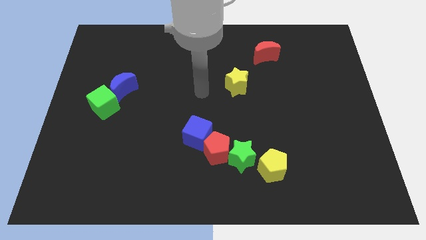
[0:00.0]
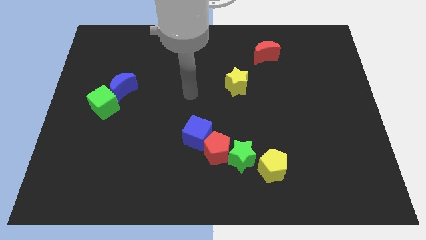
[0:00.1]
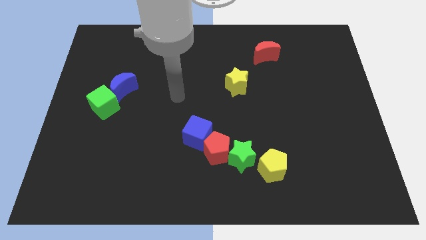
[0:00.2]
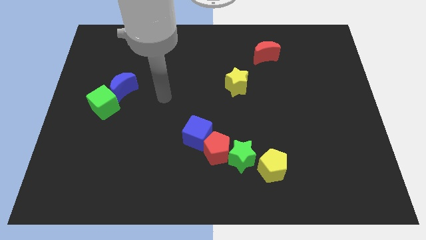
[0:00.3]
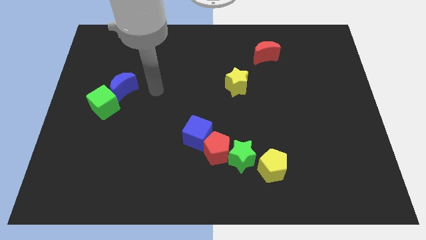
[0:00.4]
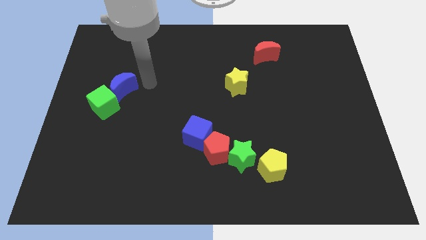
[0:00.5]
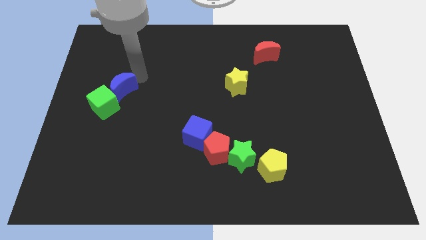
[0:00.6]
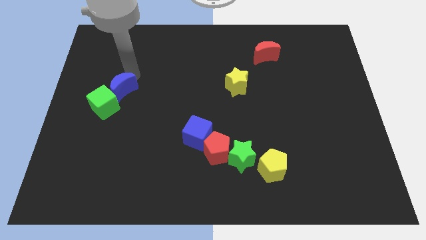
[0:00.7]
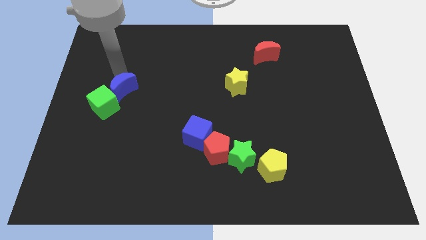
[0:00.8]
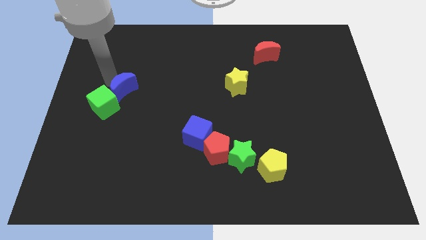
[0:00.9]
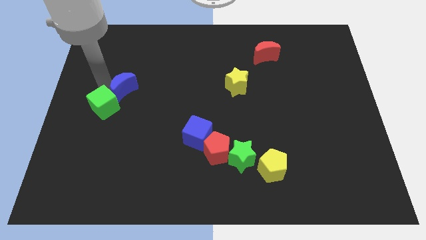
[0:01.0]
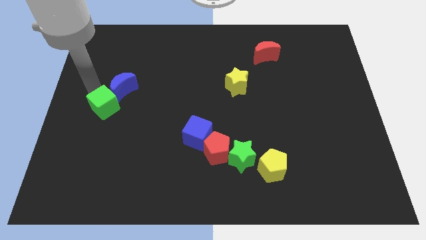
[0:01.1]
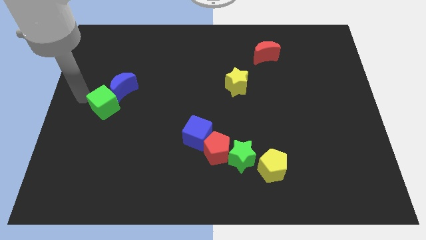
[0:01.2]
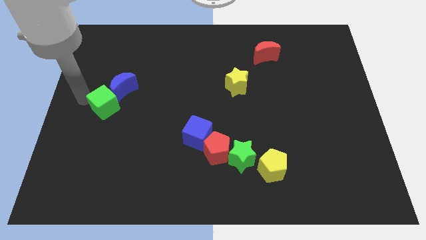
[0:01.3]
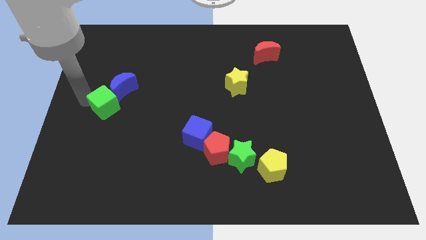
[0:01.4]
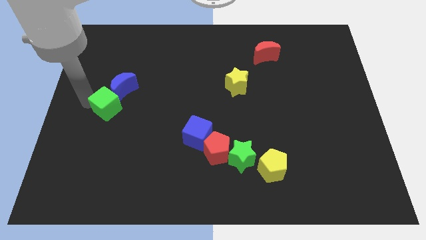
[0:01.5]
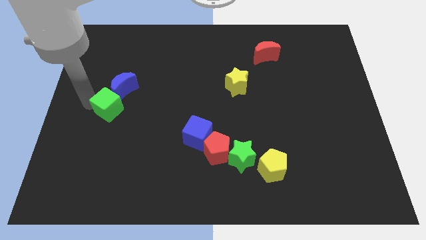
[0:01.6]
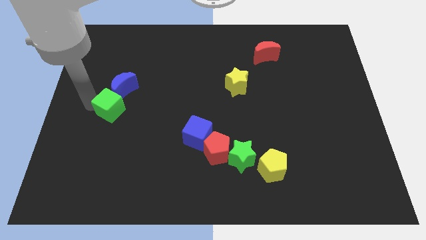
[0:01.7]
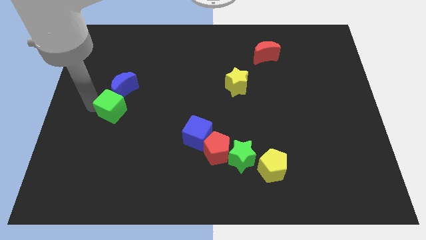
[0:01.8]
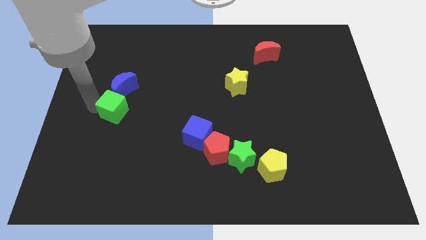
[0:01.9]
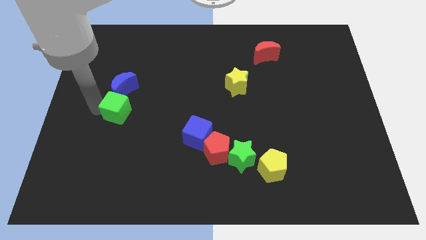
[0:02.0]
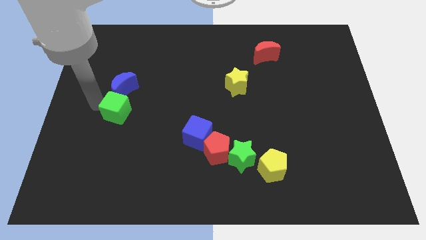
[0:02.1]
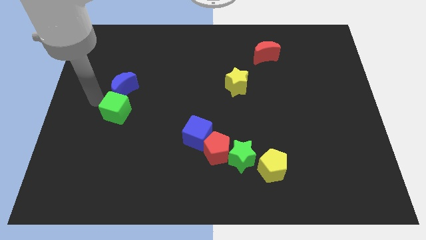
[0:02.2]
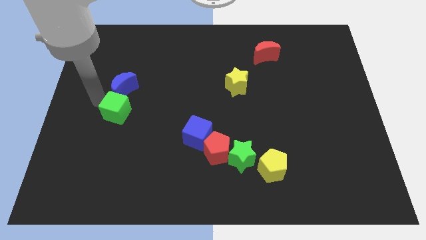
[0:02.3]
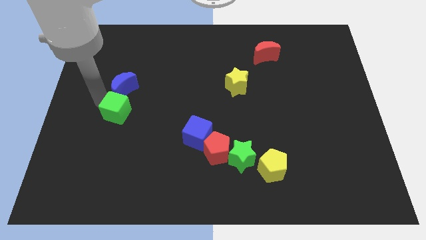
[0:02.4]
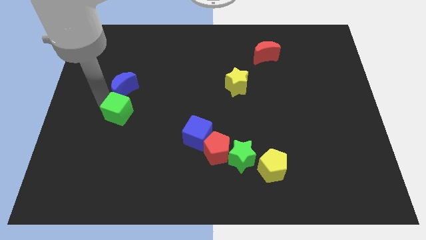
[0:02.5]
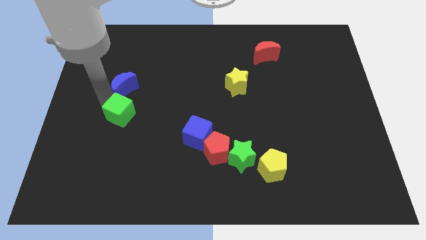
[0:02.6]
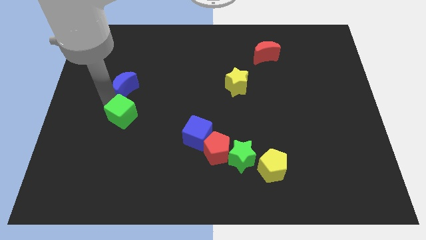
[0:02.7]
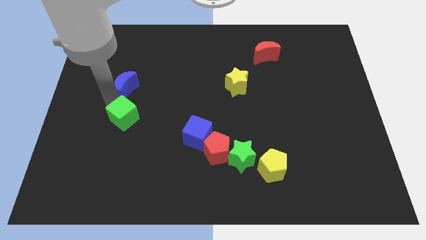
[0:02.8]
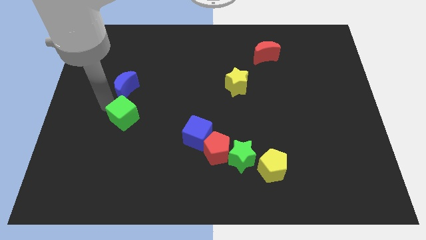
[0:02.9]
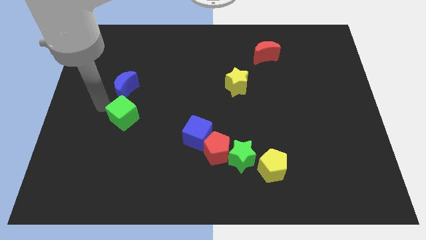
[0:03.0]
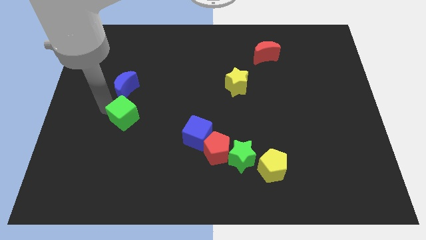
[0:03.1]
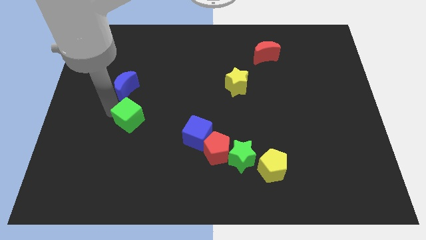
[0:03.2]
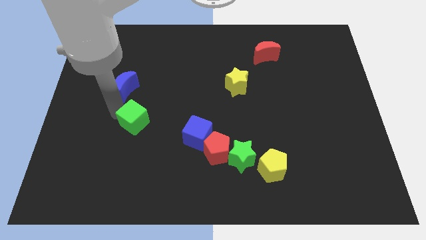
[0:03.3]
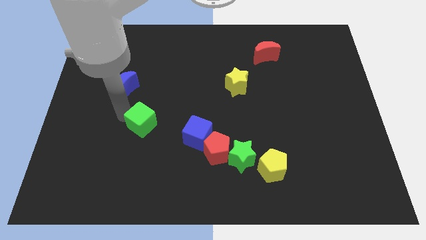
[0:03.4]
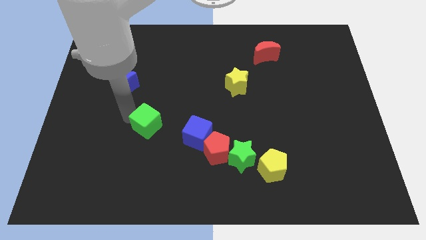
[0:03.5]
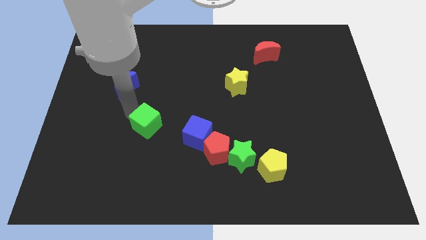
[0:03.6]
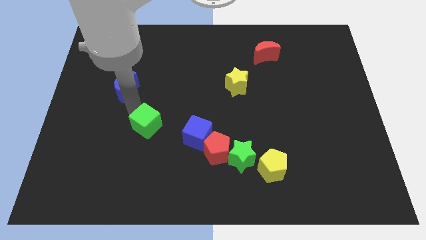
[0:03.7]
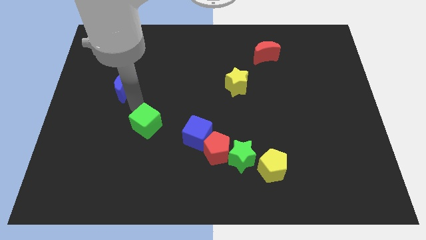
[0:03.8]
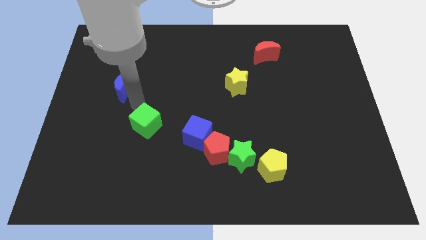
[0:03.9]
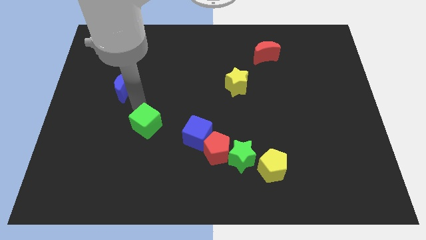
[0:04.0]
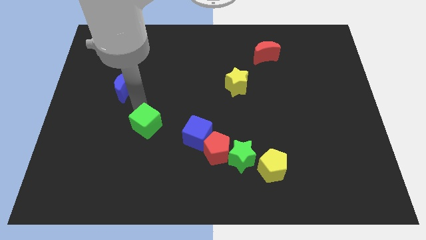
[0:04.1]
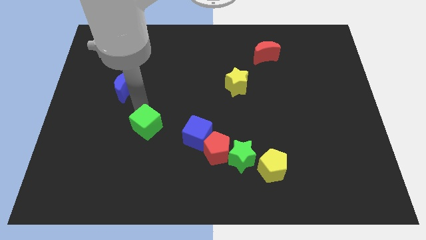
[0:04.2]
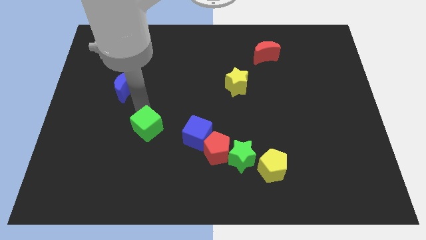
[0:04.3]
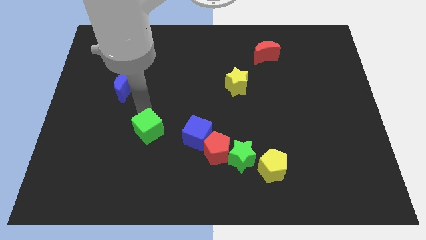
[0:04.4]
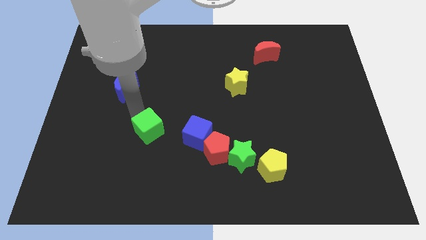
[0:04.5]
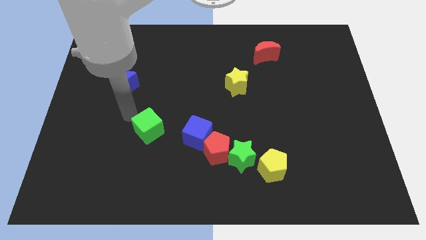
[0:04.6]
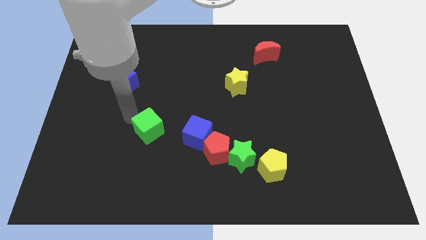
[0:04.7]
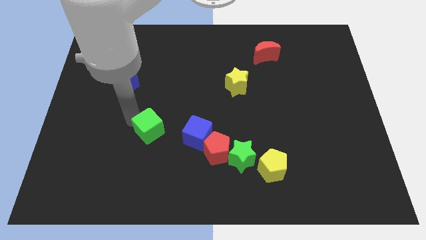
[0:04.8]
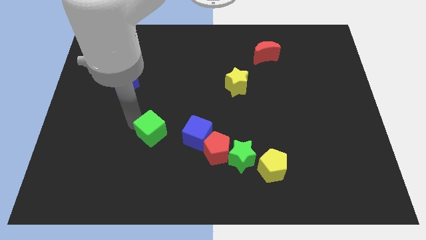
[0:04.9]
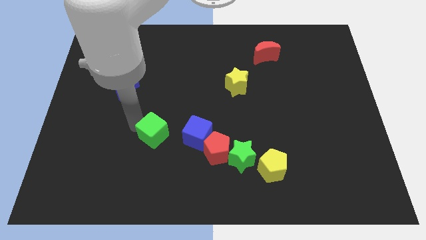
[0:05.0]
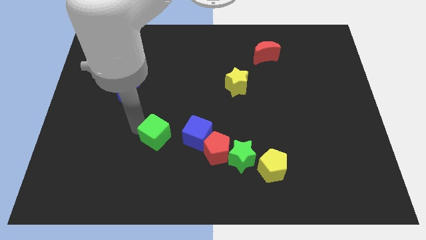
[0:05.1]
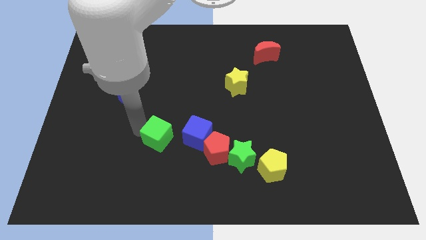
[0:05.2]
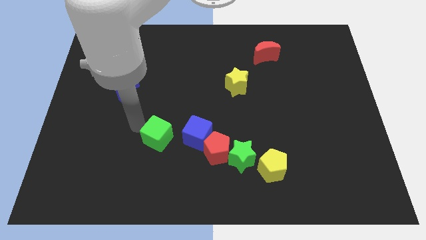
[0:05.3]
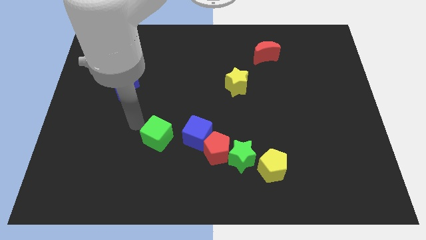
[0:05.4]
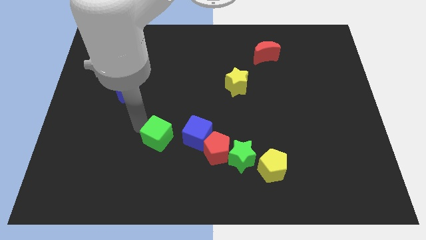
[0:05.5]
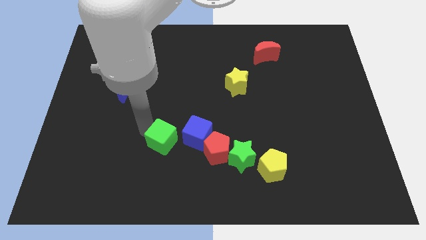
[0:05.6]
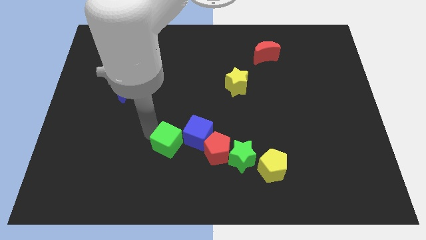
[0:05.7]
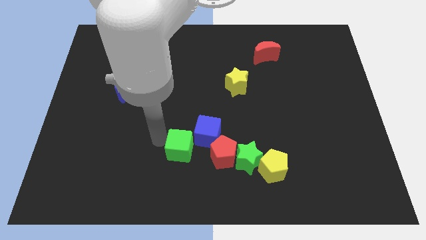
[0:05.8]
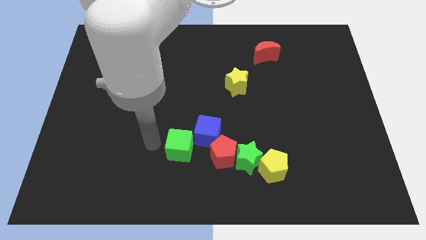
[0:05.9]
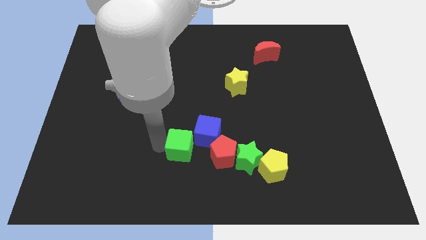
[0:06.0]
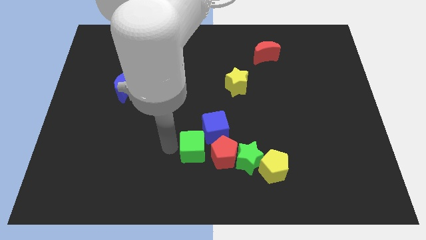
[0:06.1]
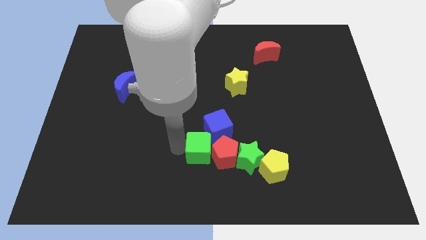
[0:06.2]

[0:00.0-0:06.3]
put the green cube close to the red pentagon
